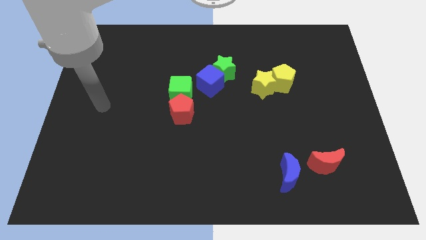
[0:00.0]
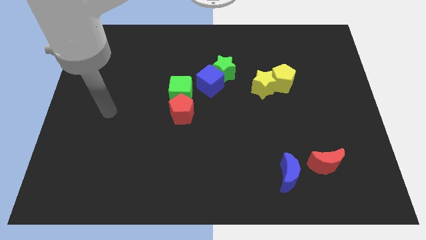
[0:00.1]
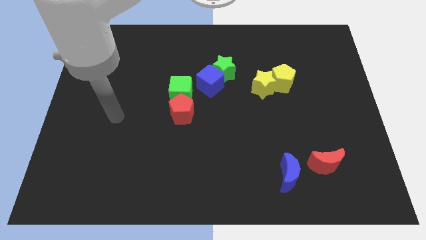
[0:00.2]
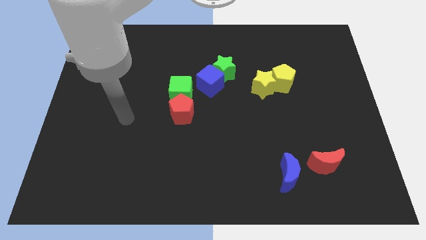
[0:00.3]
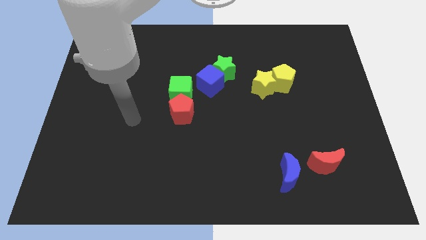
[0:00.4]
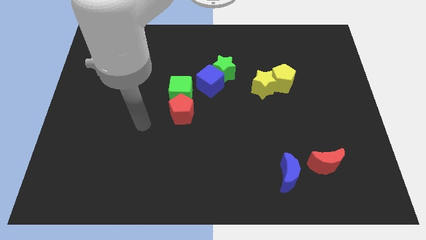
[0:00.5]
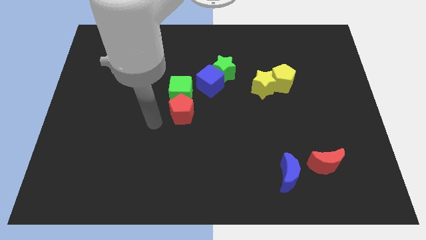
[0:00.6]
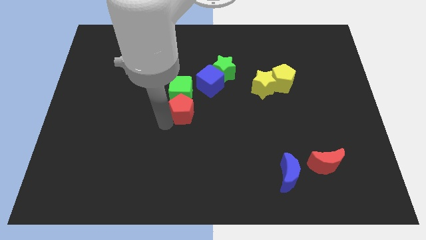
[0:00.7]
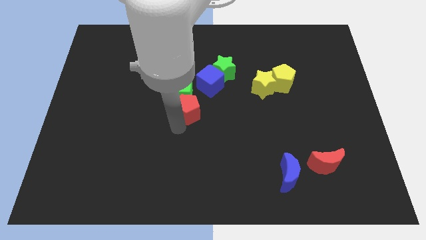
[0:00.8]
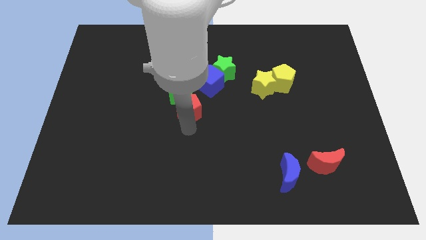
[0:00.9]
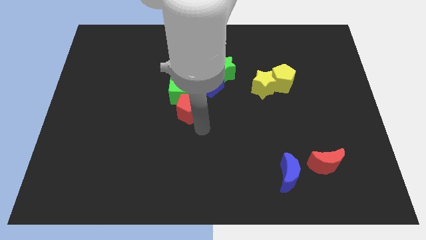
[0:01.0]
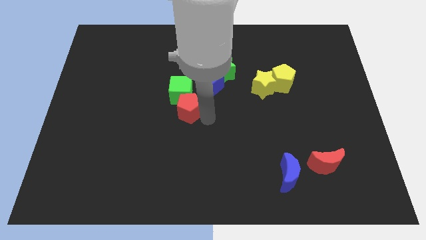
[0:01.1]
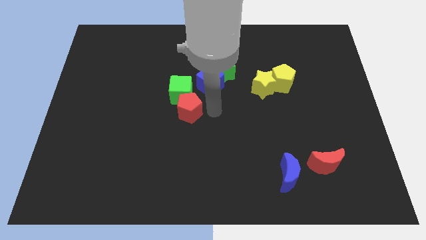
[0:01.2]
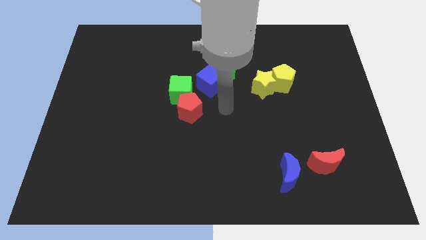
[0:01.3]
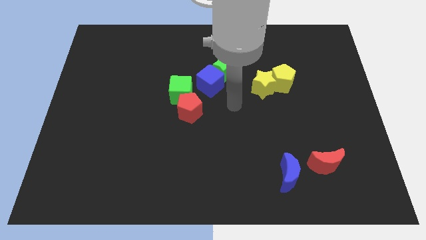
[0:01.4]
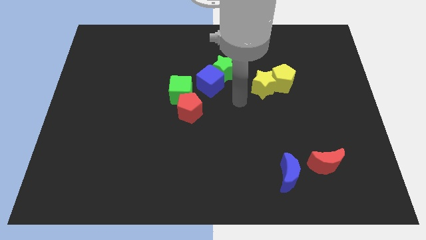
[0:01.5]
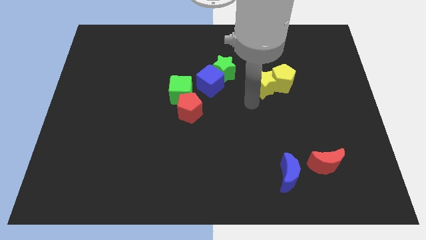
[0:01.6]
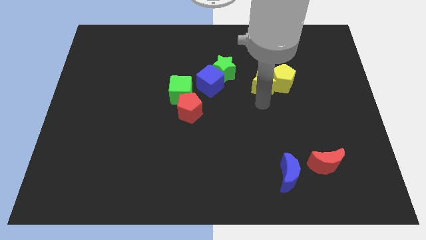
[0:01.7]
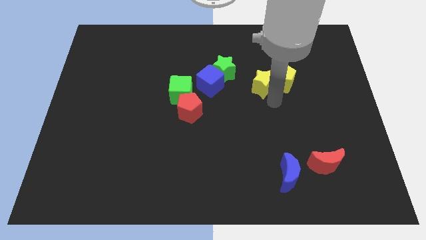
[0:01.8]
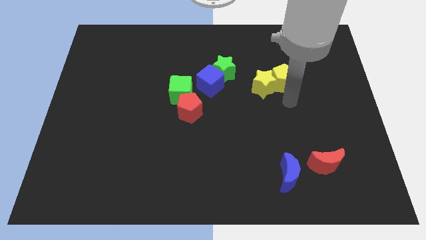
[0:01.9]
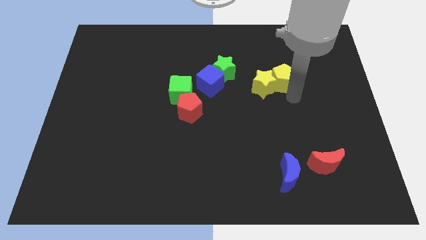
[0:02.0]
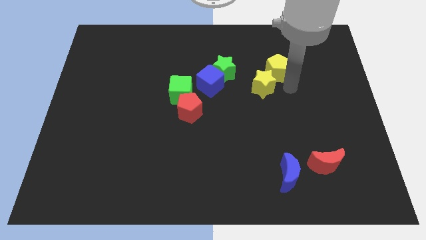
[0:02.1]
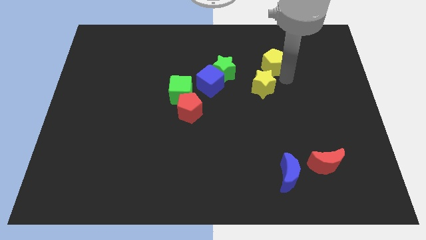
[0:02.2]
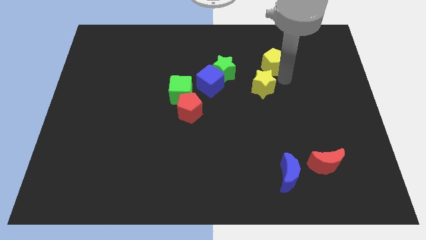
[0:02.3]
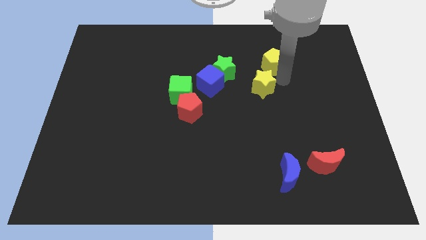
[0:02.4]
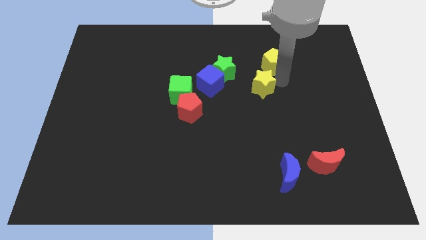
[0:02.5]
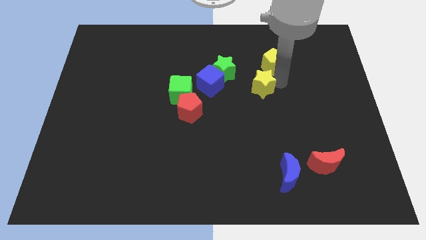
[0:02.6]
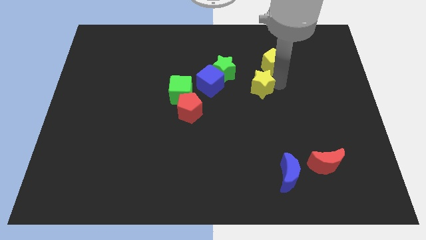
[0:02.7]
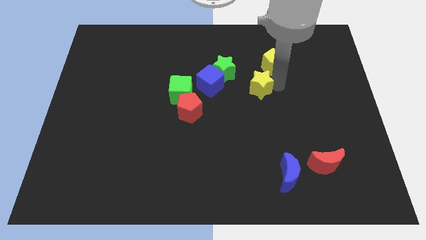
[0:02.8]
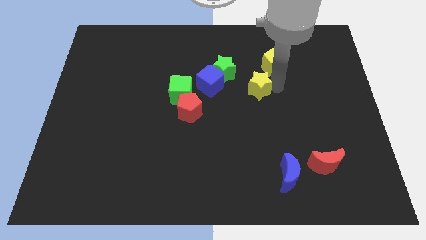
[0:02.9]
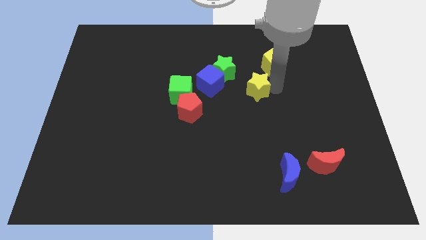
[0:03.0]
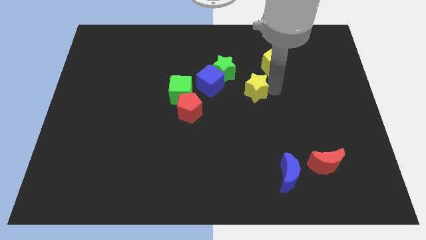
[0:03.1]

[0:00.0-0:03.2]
separate the yellow star from the yellow pentagon

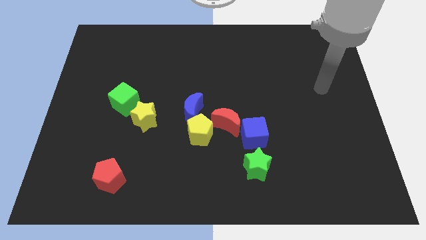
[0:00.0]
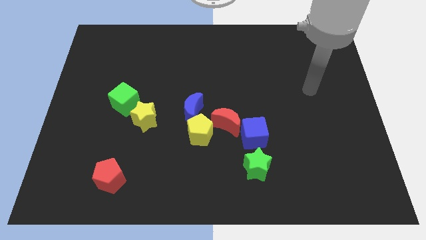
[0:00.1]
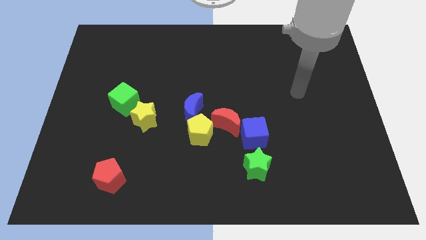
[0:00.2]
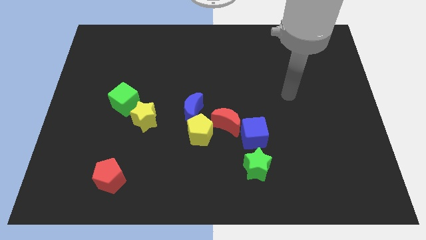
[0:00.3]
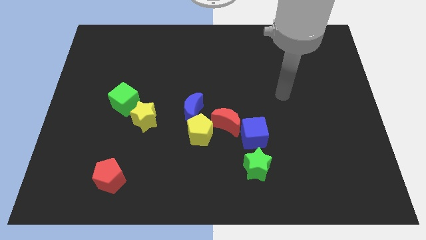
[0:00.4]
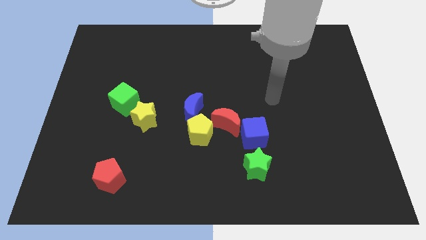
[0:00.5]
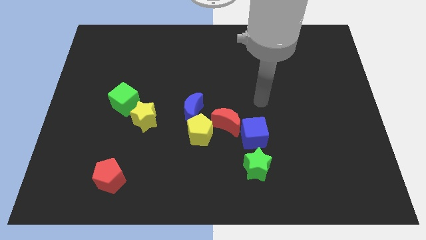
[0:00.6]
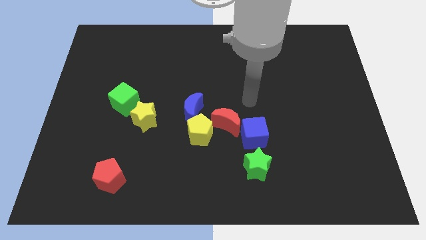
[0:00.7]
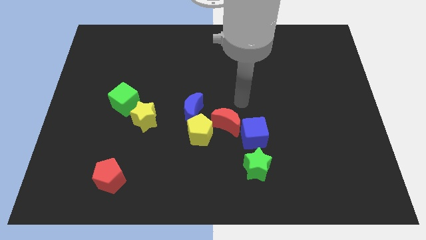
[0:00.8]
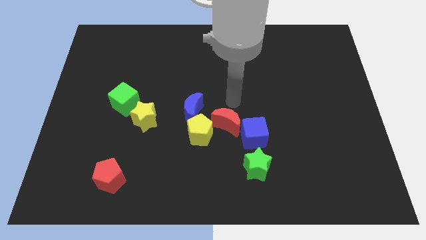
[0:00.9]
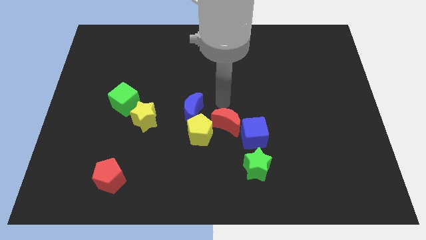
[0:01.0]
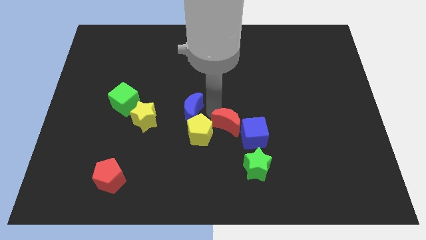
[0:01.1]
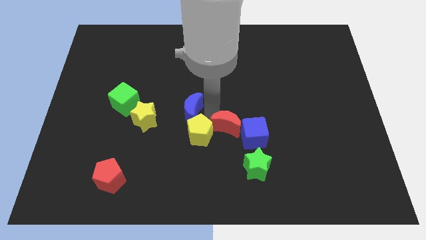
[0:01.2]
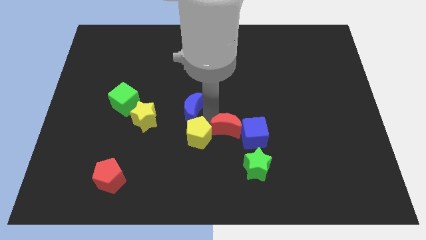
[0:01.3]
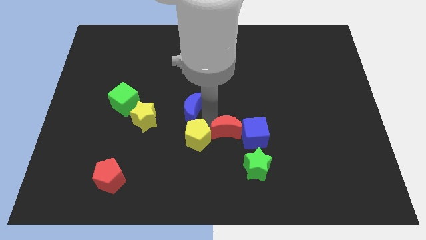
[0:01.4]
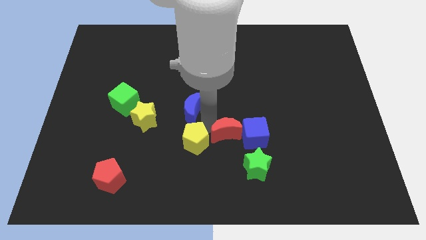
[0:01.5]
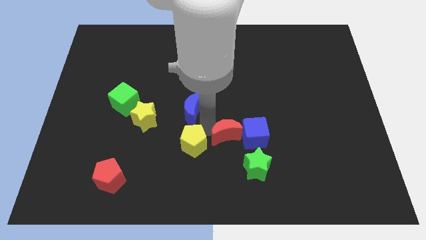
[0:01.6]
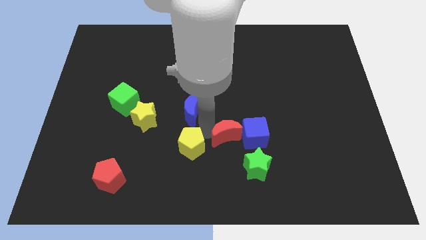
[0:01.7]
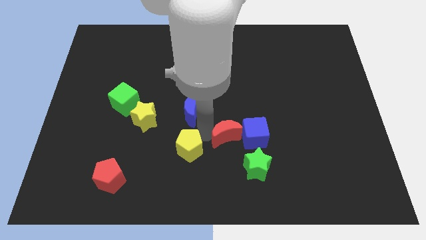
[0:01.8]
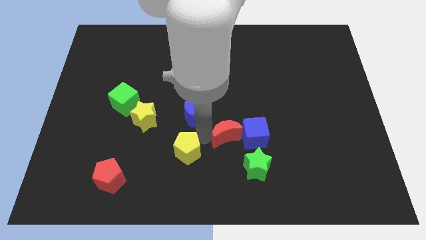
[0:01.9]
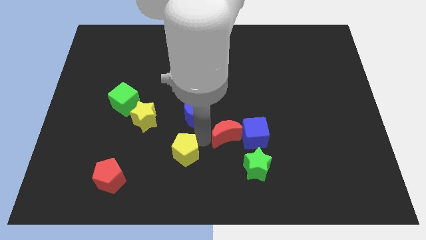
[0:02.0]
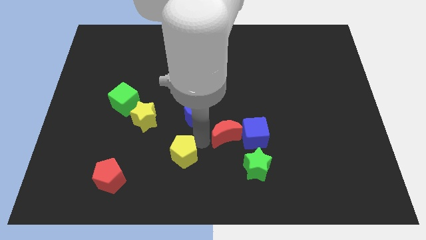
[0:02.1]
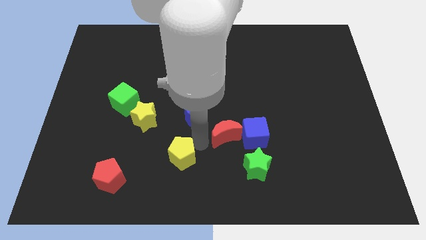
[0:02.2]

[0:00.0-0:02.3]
move the yellow pentagon away from the blue moon and red moon

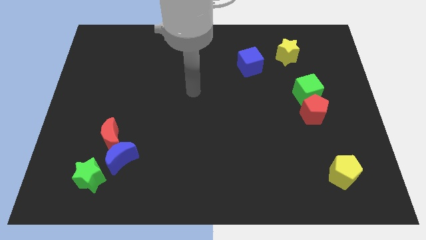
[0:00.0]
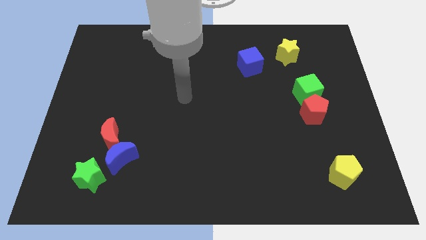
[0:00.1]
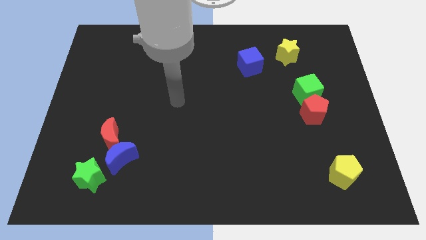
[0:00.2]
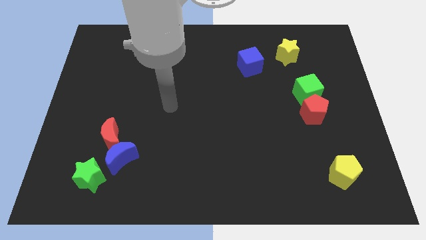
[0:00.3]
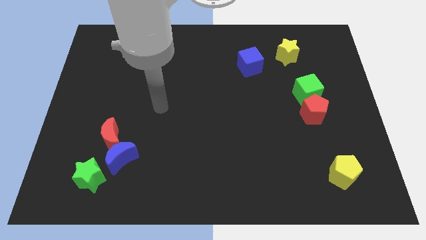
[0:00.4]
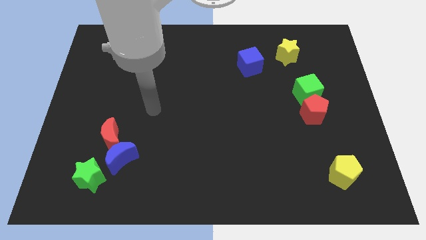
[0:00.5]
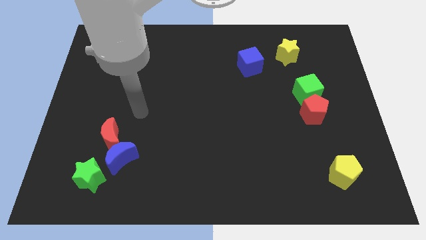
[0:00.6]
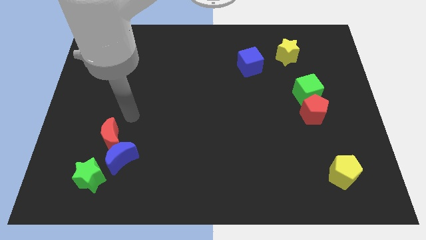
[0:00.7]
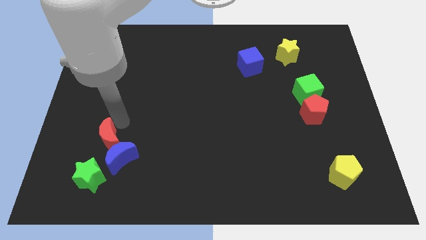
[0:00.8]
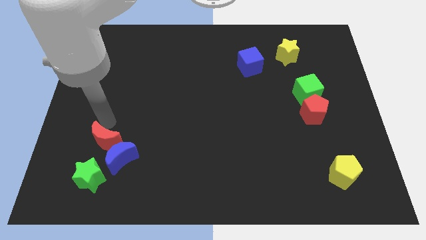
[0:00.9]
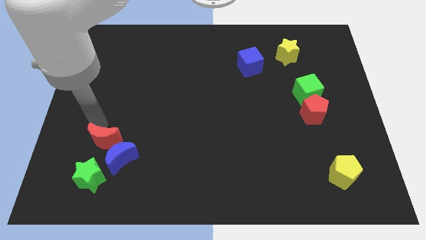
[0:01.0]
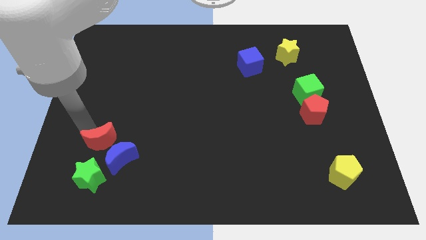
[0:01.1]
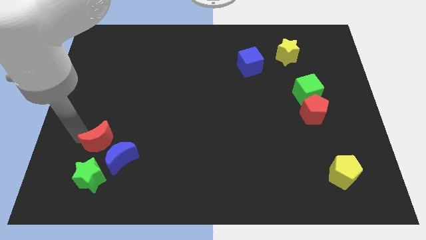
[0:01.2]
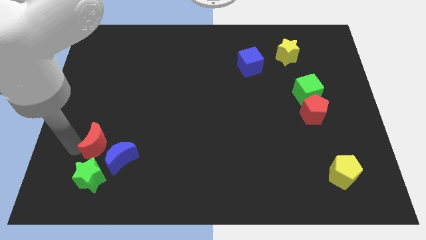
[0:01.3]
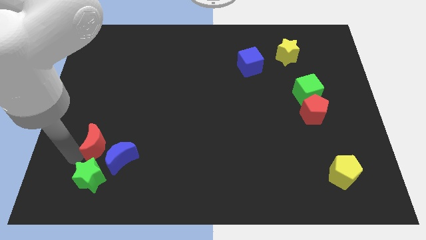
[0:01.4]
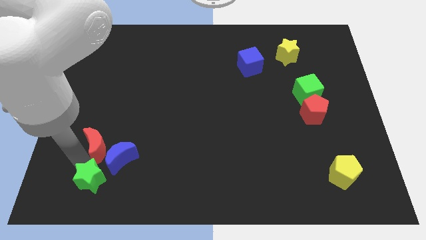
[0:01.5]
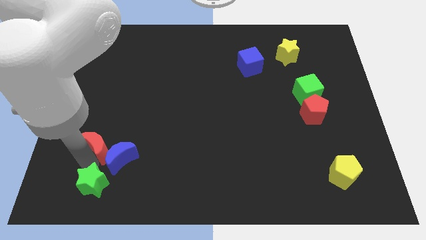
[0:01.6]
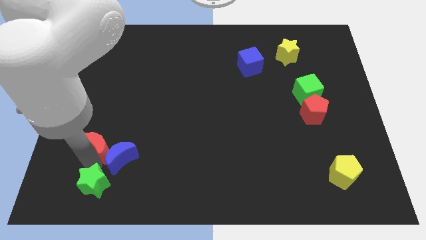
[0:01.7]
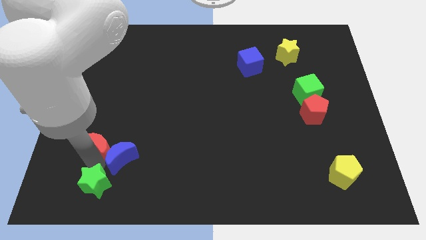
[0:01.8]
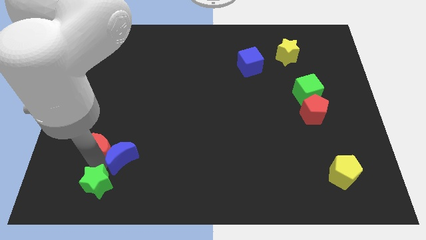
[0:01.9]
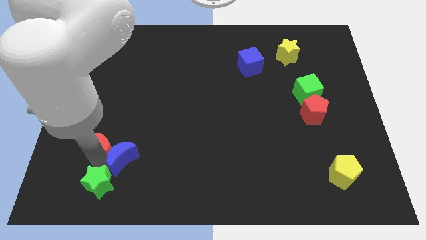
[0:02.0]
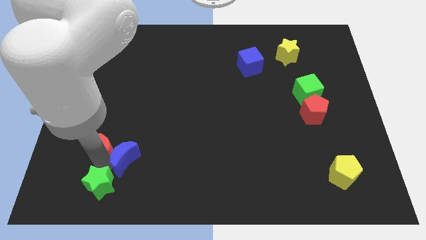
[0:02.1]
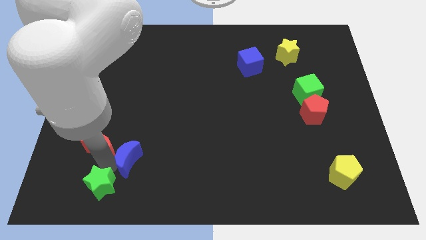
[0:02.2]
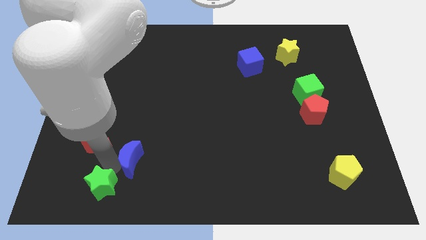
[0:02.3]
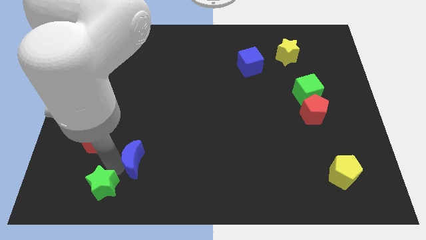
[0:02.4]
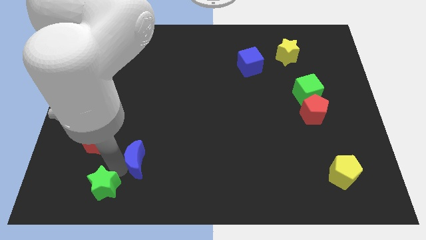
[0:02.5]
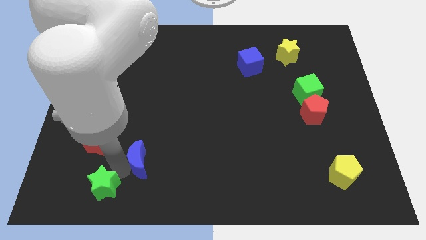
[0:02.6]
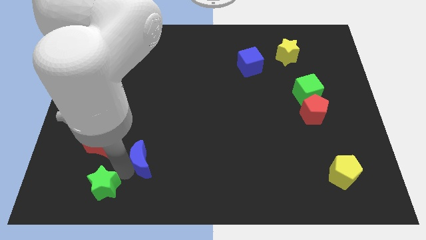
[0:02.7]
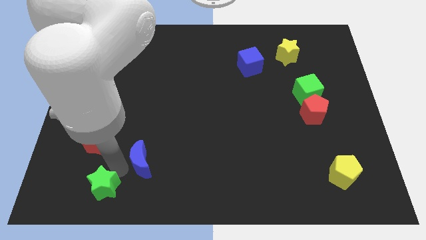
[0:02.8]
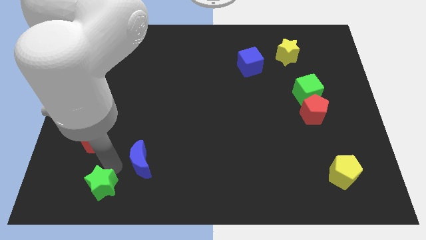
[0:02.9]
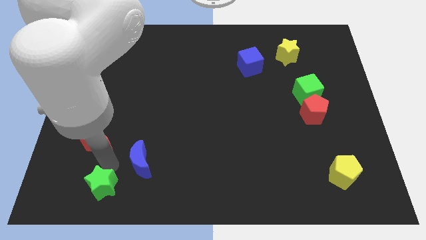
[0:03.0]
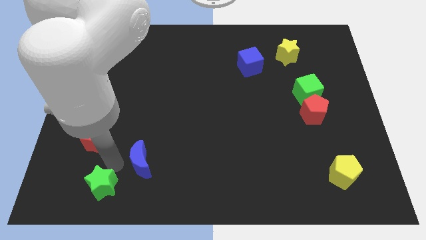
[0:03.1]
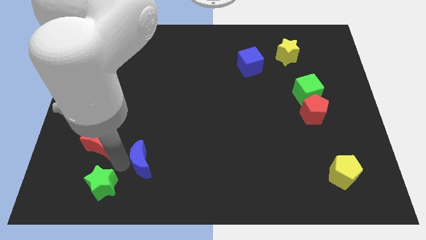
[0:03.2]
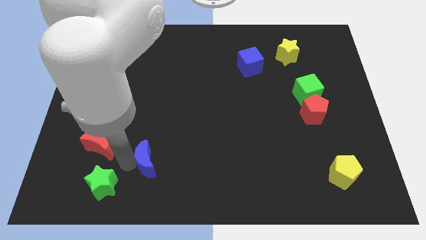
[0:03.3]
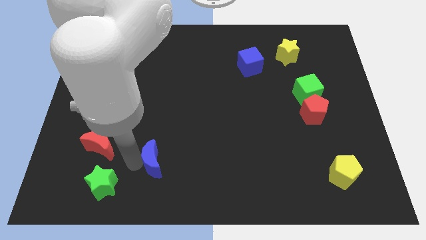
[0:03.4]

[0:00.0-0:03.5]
separate the blue moon from the red moon and green star

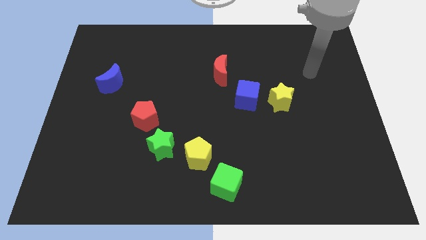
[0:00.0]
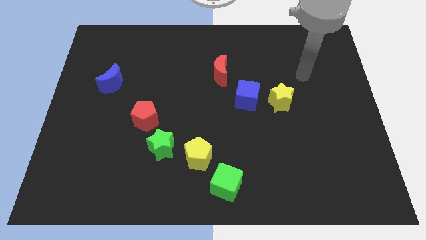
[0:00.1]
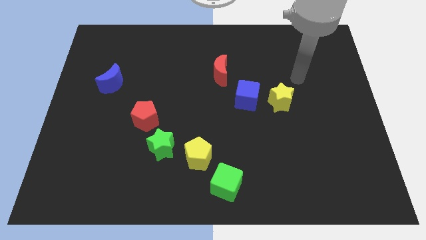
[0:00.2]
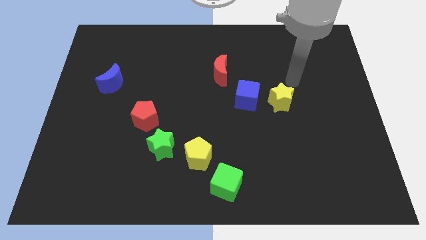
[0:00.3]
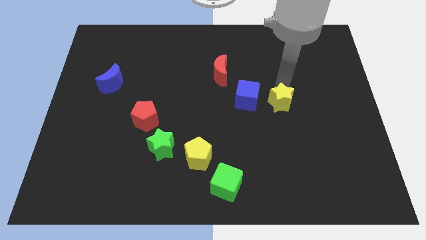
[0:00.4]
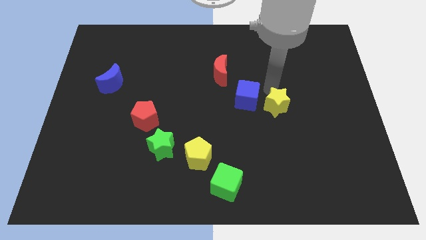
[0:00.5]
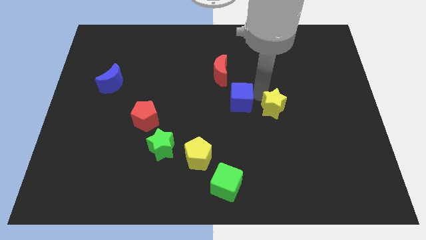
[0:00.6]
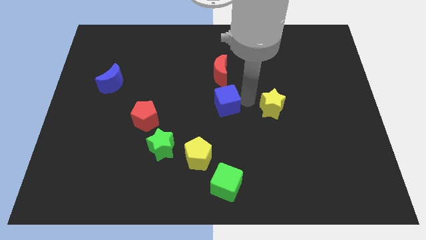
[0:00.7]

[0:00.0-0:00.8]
pull the yellow star apart from the blue cube
